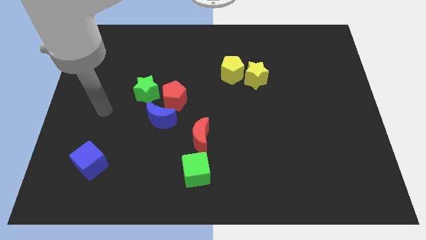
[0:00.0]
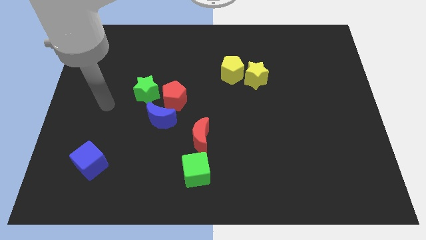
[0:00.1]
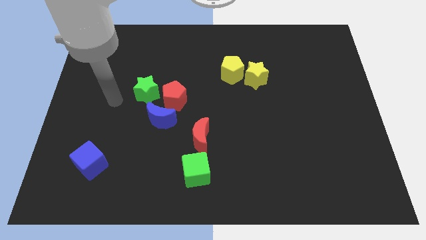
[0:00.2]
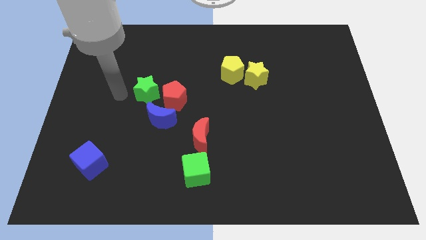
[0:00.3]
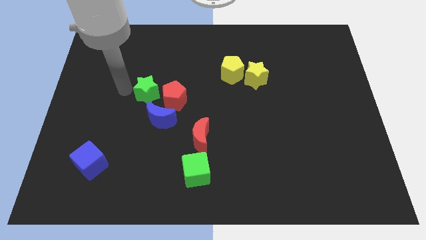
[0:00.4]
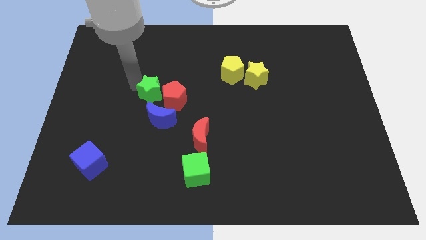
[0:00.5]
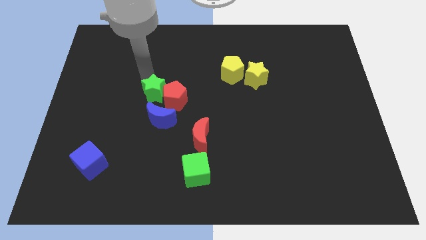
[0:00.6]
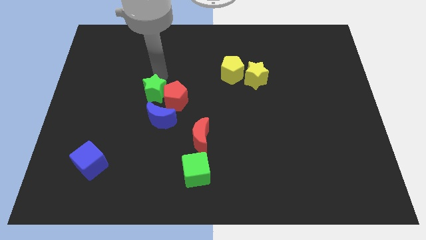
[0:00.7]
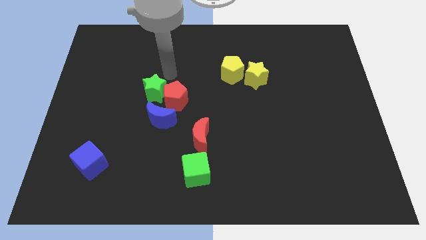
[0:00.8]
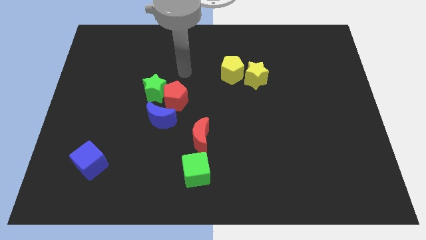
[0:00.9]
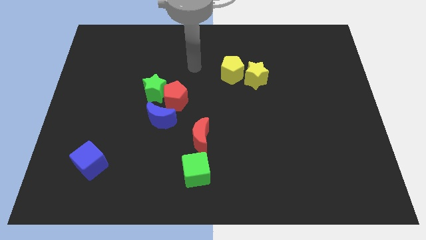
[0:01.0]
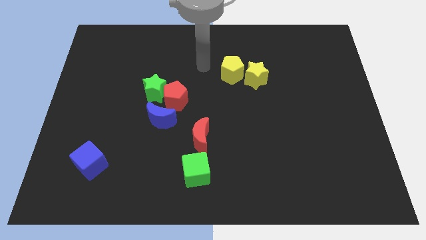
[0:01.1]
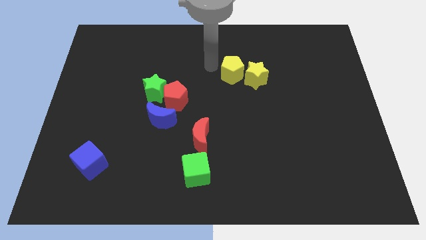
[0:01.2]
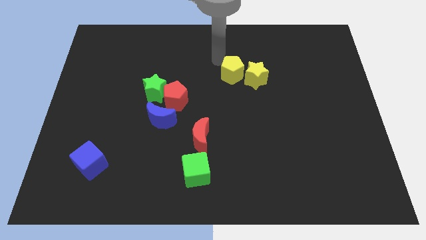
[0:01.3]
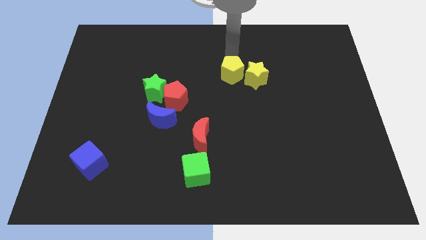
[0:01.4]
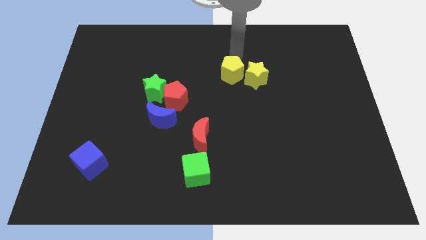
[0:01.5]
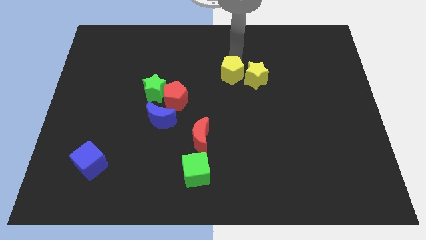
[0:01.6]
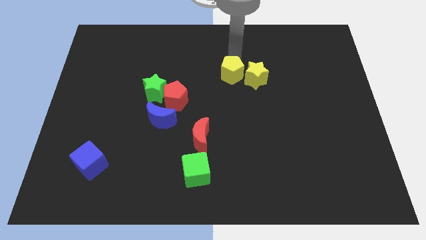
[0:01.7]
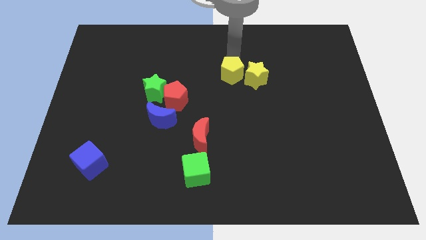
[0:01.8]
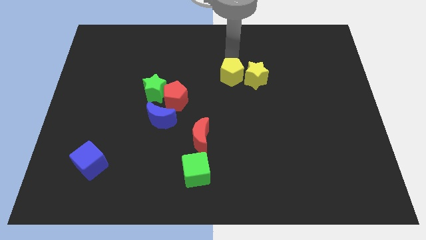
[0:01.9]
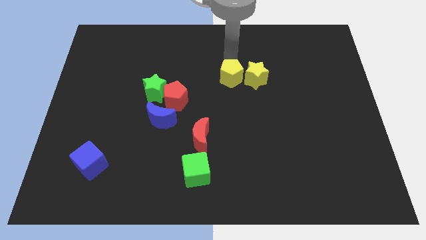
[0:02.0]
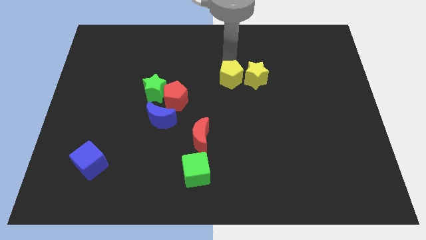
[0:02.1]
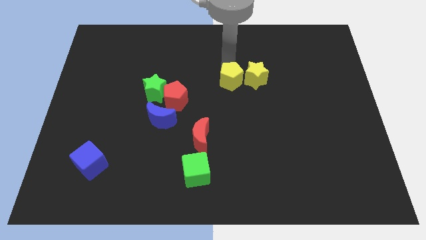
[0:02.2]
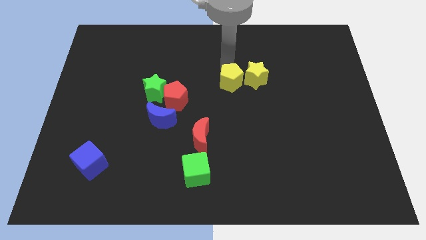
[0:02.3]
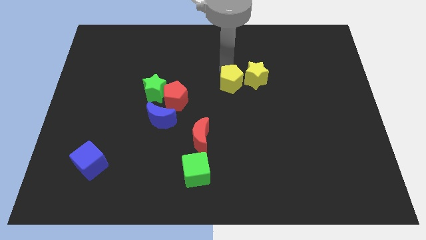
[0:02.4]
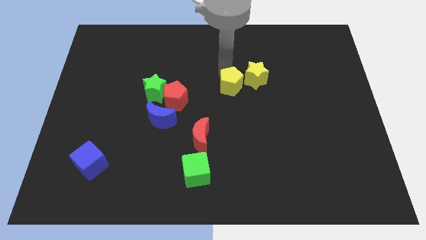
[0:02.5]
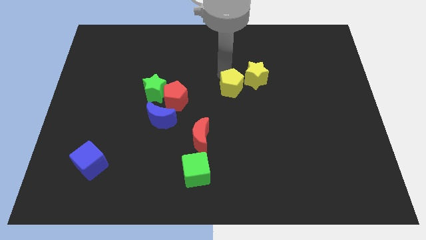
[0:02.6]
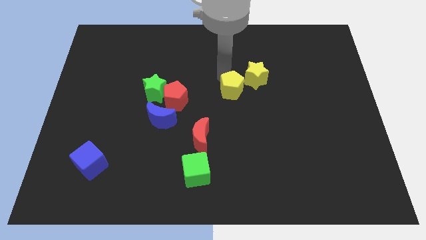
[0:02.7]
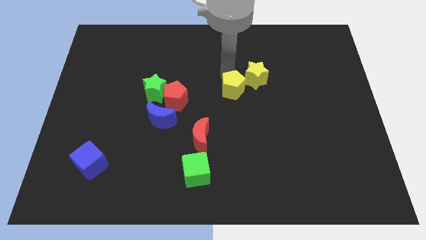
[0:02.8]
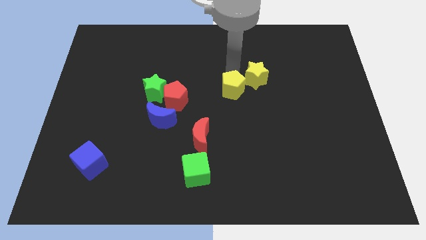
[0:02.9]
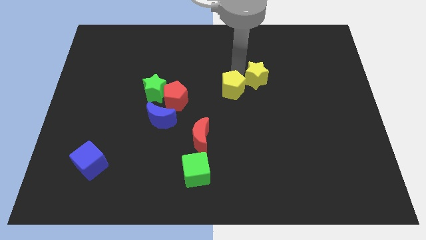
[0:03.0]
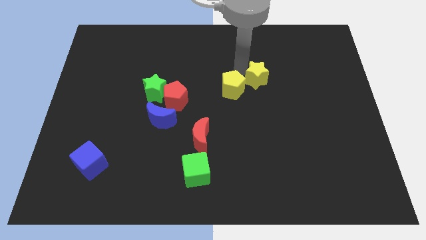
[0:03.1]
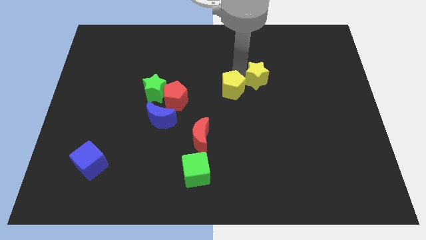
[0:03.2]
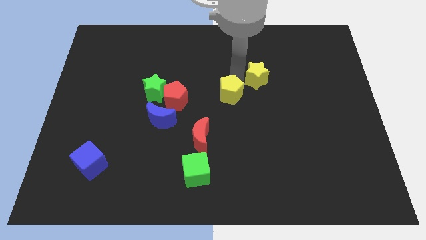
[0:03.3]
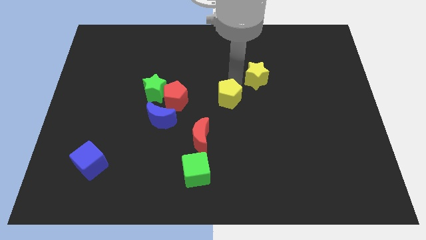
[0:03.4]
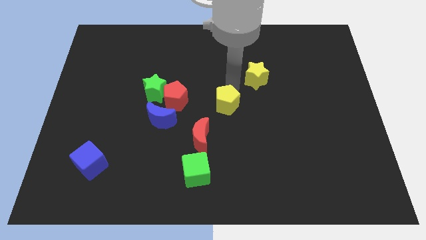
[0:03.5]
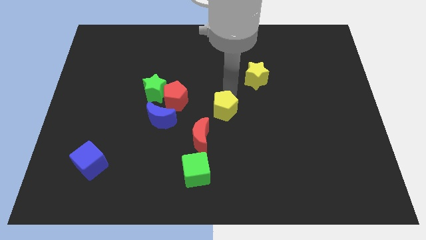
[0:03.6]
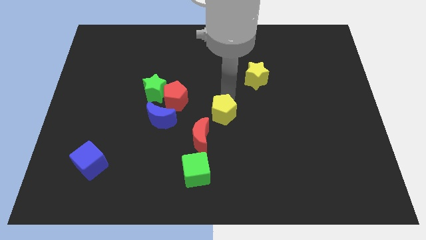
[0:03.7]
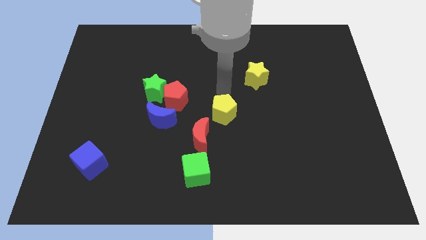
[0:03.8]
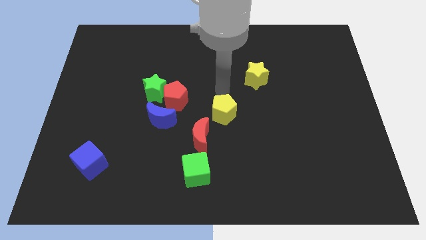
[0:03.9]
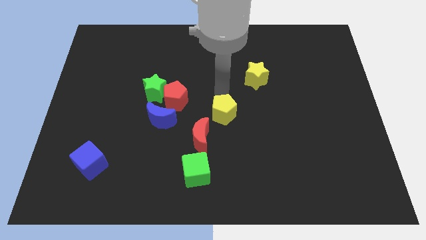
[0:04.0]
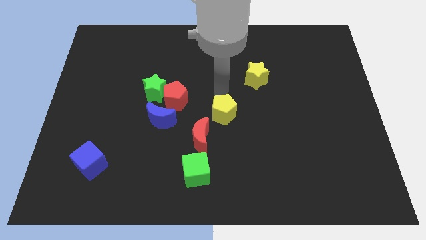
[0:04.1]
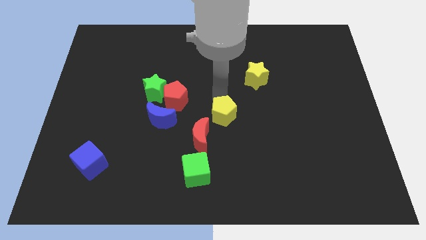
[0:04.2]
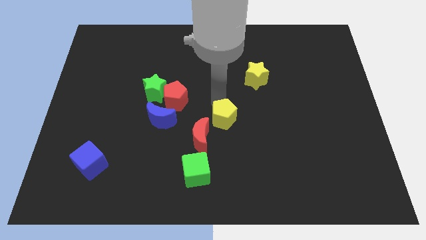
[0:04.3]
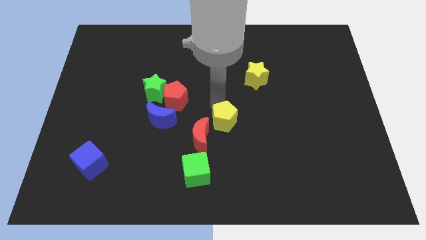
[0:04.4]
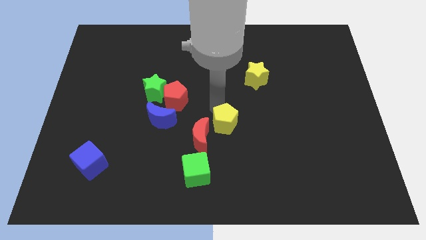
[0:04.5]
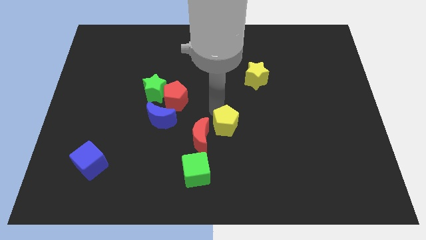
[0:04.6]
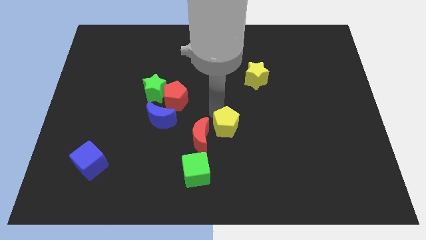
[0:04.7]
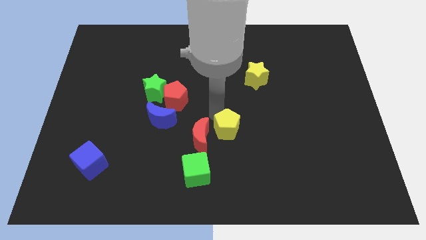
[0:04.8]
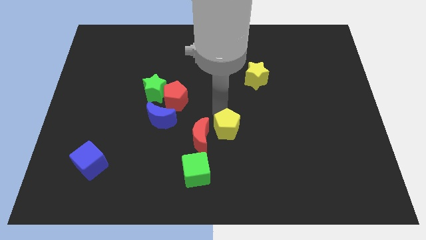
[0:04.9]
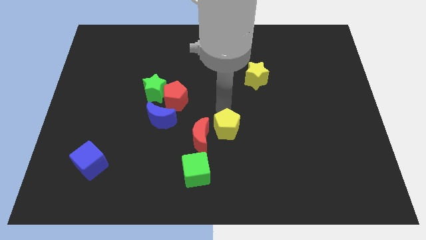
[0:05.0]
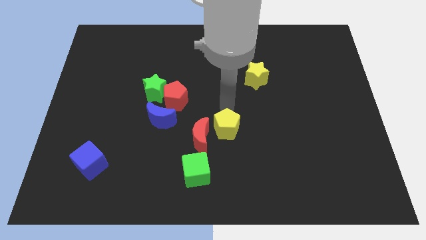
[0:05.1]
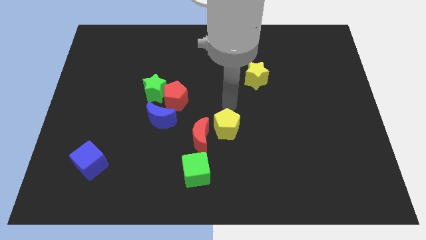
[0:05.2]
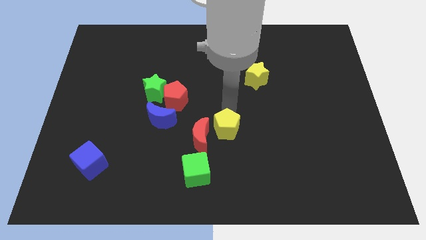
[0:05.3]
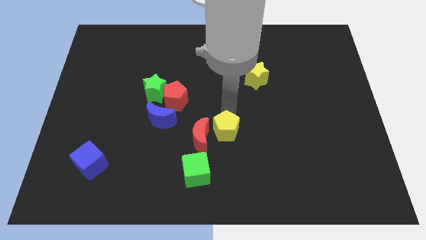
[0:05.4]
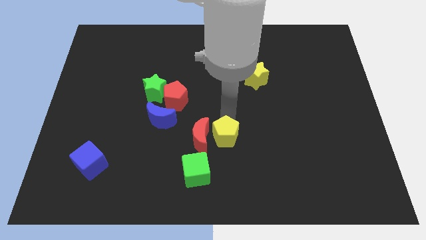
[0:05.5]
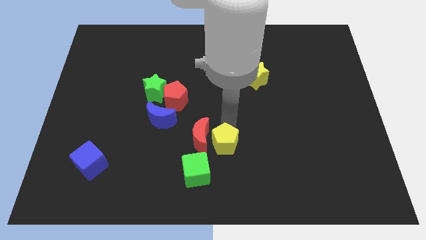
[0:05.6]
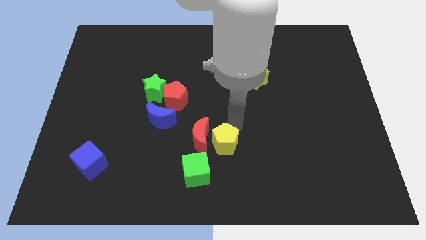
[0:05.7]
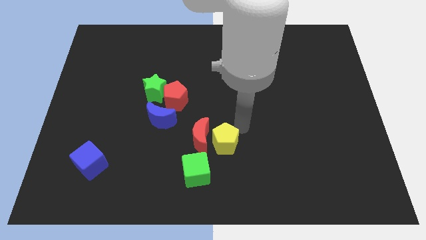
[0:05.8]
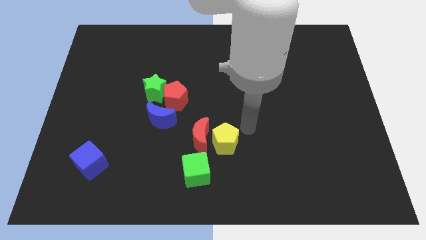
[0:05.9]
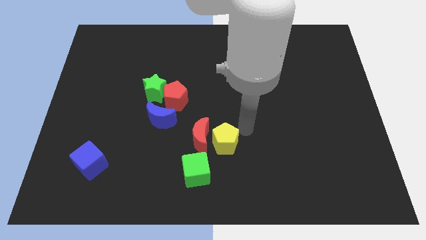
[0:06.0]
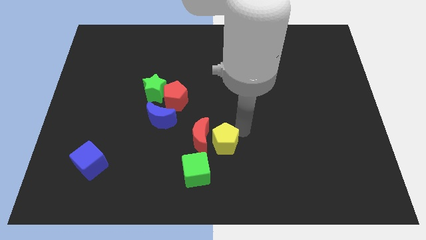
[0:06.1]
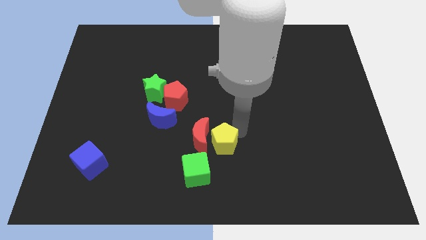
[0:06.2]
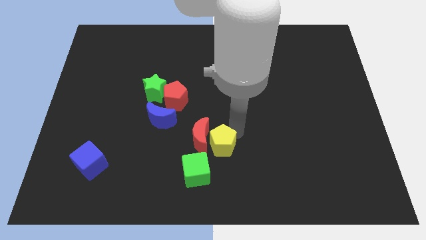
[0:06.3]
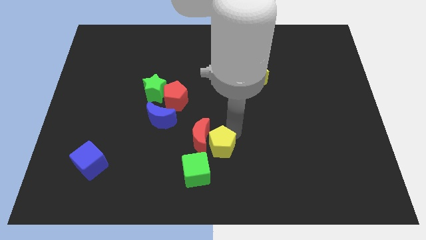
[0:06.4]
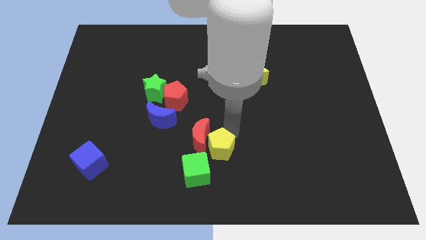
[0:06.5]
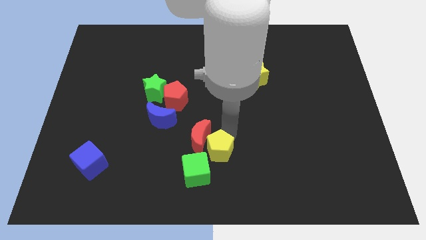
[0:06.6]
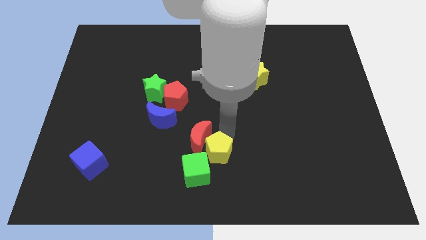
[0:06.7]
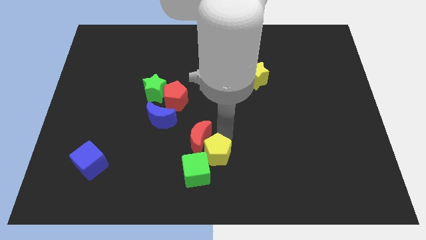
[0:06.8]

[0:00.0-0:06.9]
put the yellow pentagon to the green cube

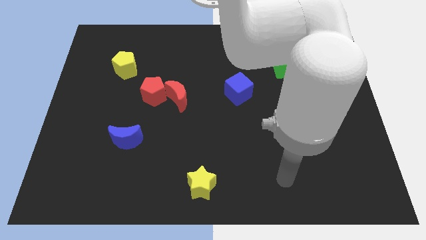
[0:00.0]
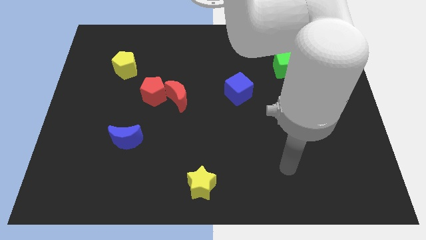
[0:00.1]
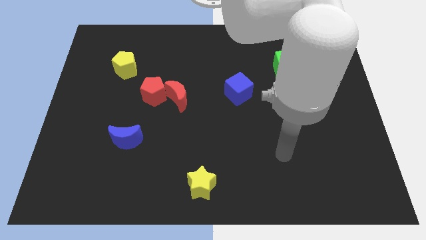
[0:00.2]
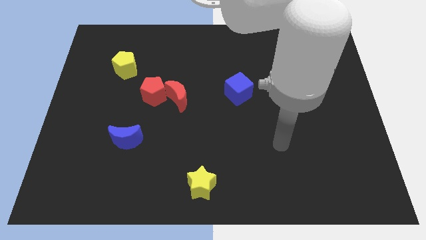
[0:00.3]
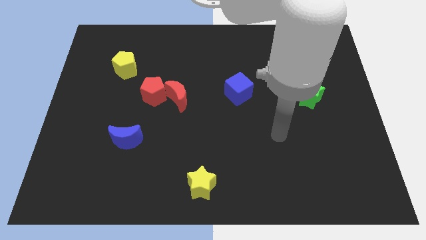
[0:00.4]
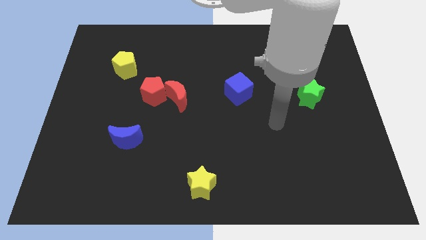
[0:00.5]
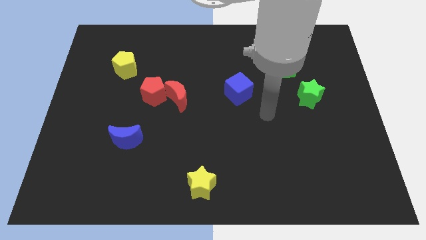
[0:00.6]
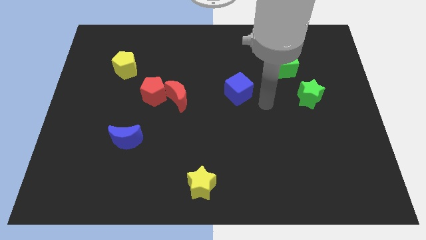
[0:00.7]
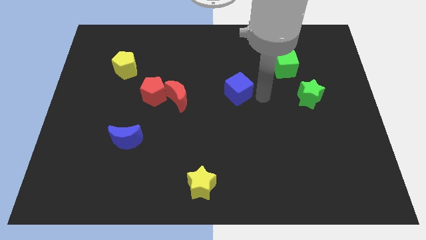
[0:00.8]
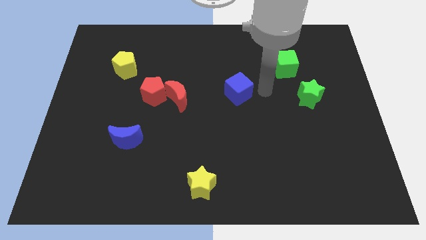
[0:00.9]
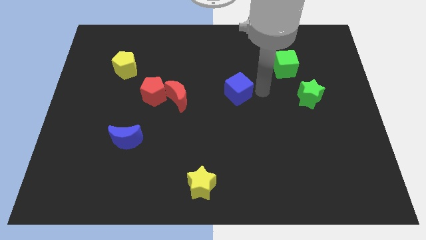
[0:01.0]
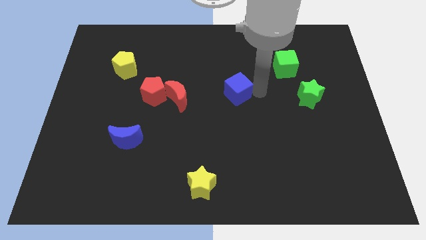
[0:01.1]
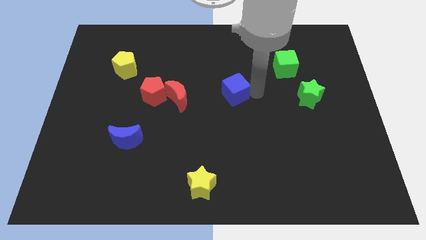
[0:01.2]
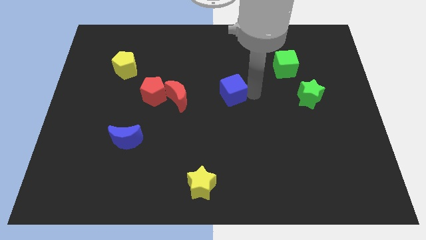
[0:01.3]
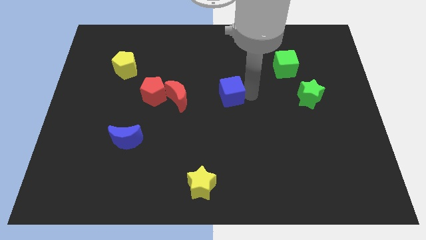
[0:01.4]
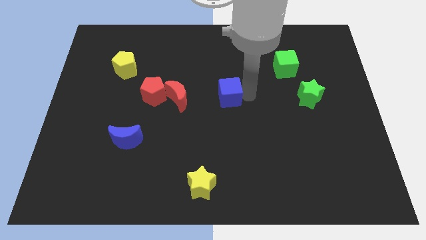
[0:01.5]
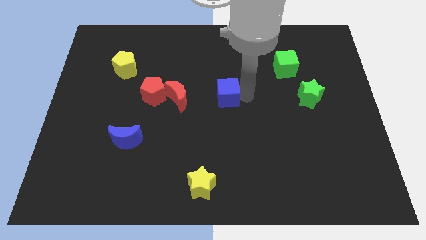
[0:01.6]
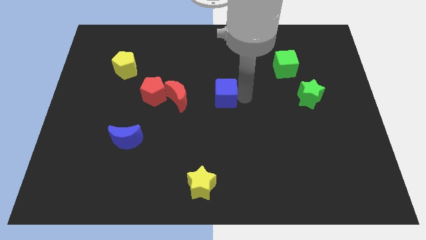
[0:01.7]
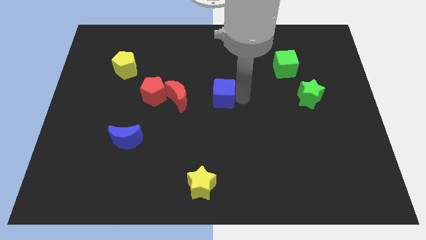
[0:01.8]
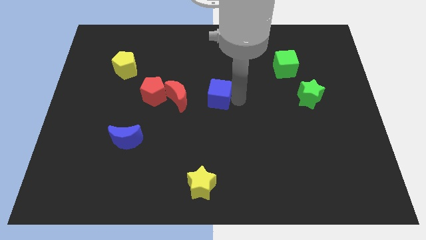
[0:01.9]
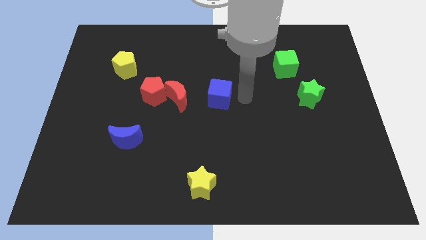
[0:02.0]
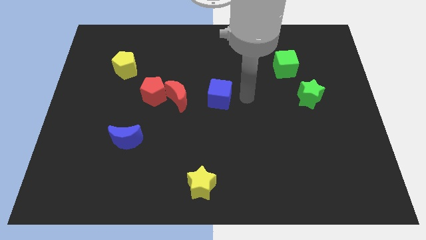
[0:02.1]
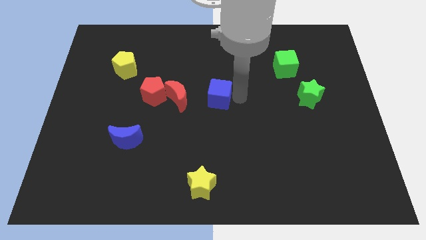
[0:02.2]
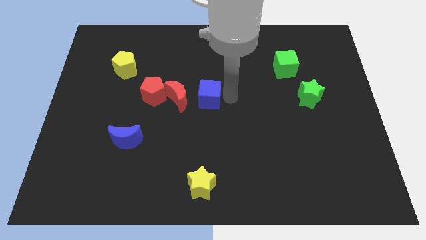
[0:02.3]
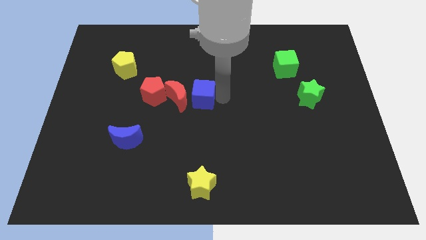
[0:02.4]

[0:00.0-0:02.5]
push the blue cube towards the red moon
